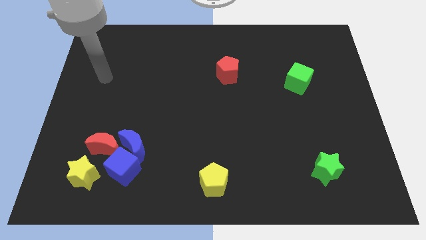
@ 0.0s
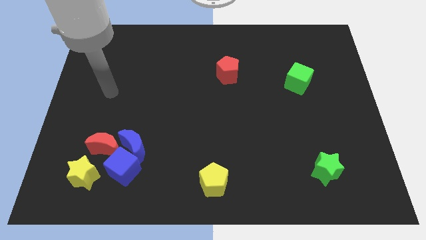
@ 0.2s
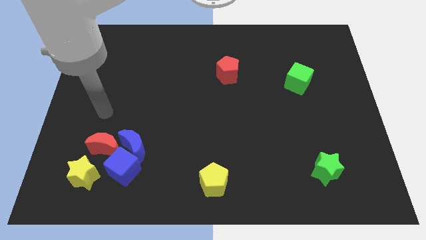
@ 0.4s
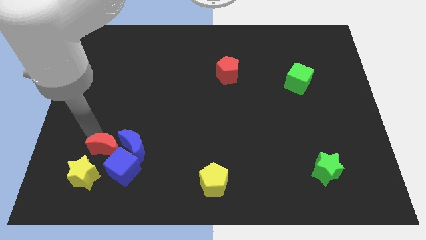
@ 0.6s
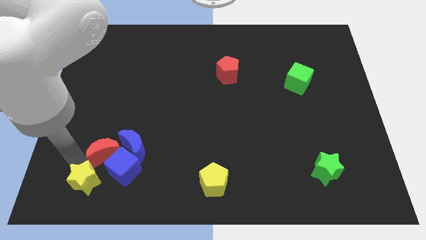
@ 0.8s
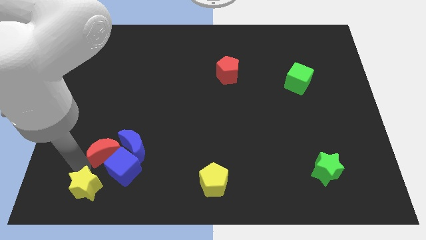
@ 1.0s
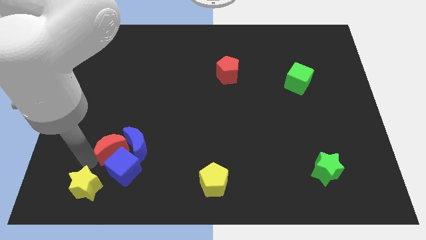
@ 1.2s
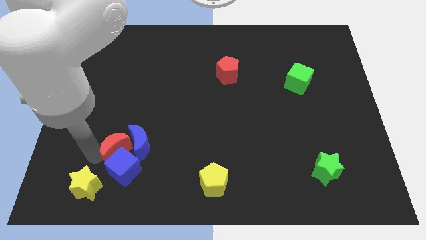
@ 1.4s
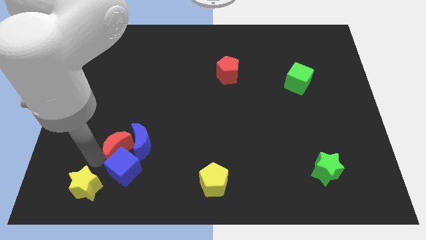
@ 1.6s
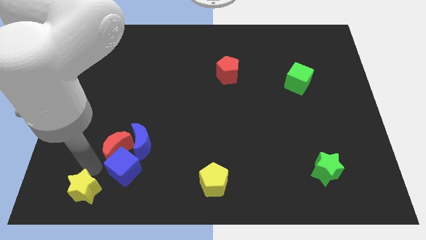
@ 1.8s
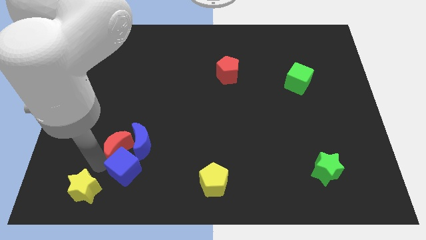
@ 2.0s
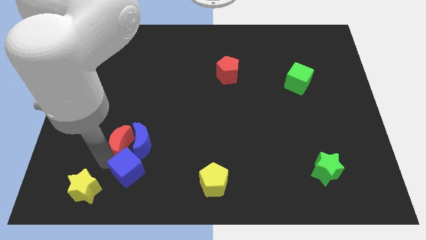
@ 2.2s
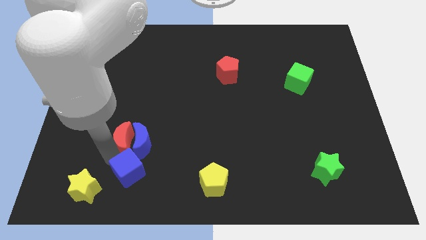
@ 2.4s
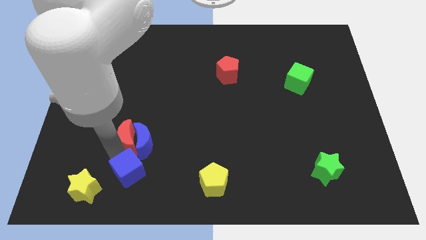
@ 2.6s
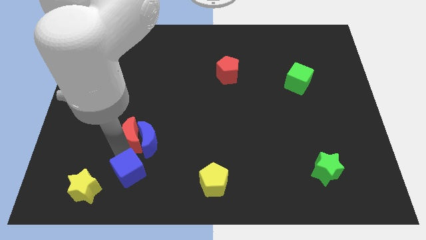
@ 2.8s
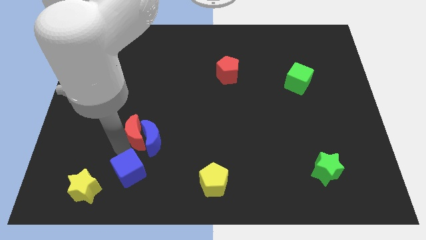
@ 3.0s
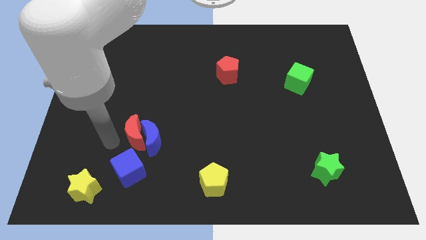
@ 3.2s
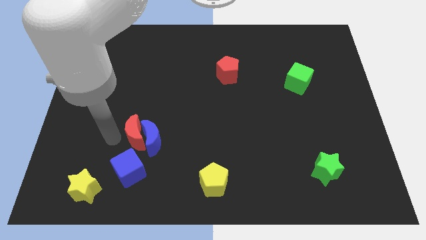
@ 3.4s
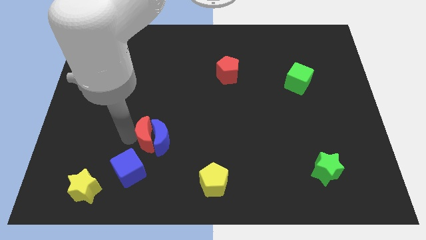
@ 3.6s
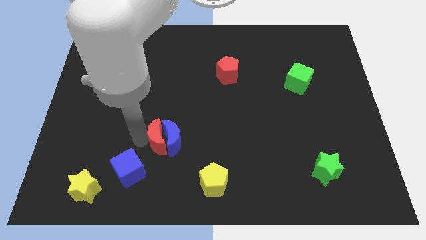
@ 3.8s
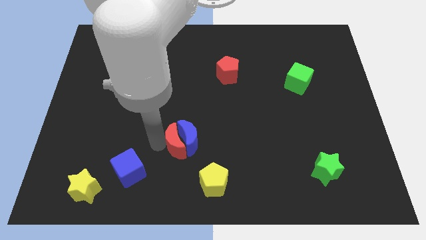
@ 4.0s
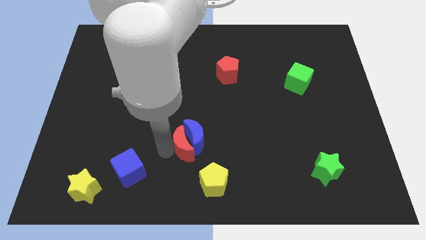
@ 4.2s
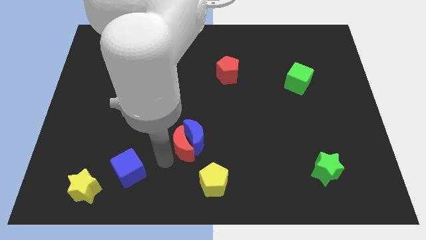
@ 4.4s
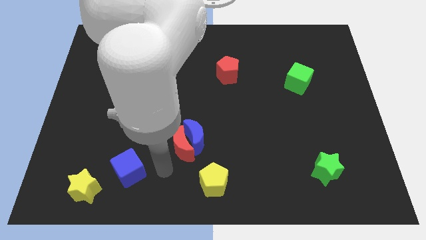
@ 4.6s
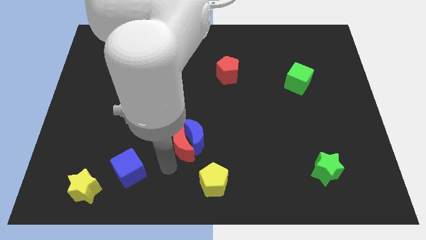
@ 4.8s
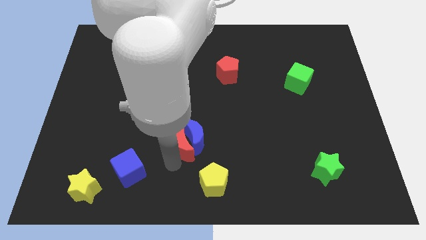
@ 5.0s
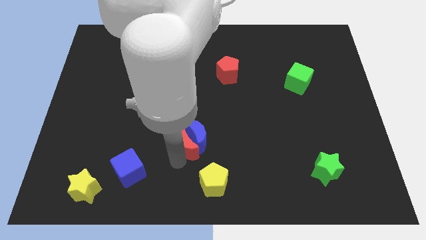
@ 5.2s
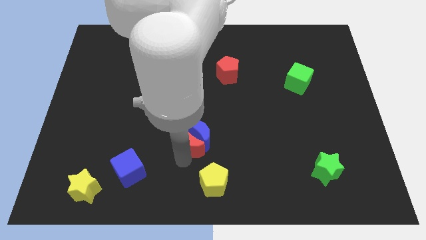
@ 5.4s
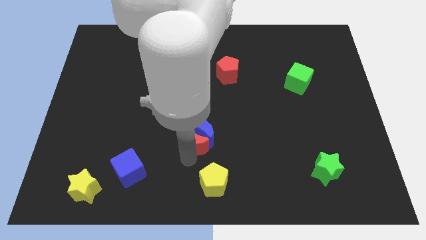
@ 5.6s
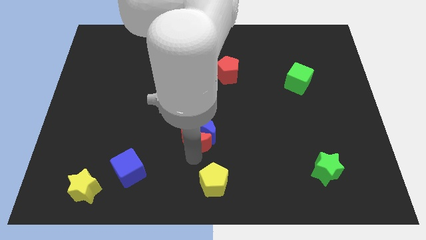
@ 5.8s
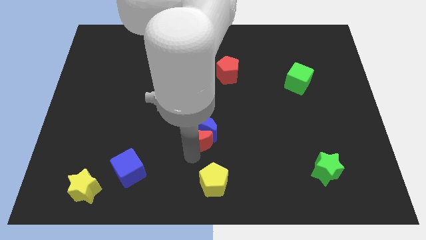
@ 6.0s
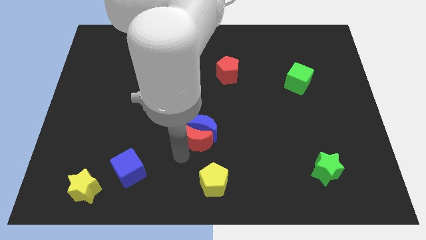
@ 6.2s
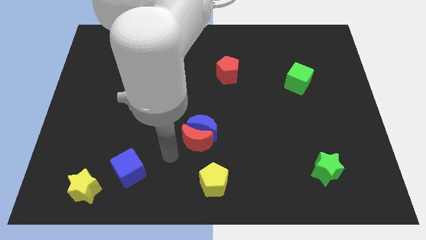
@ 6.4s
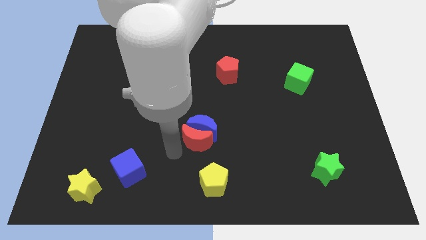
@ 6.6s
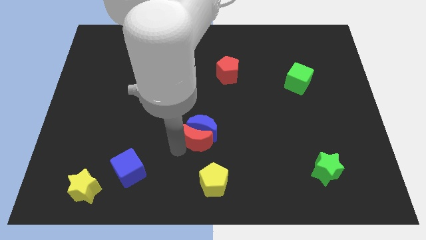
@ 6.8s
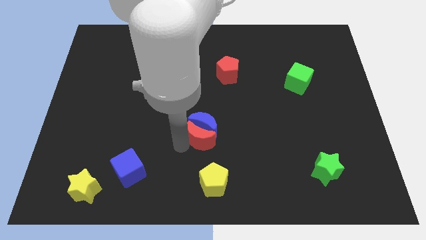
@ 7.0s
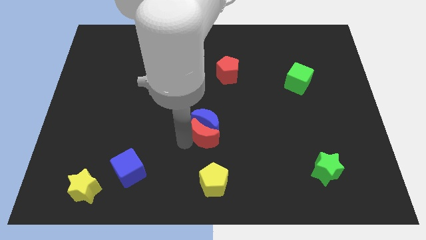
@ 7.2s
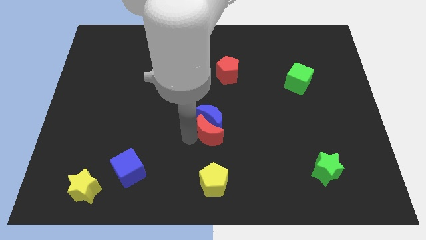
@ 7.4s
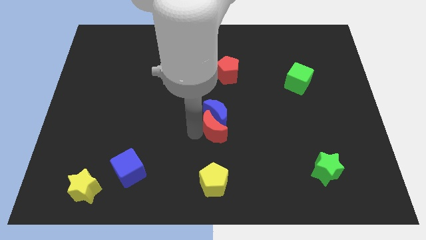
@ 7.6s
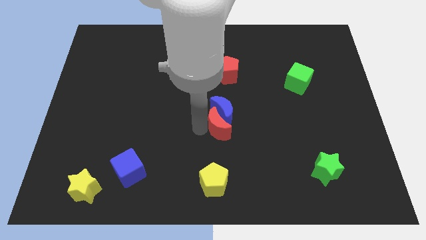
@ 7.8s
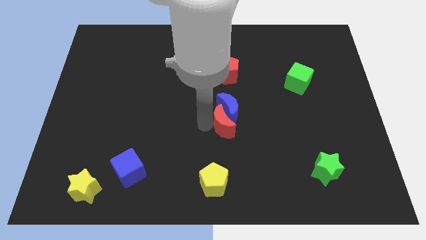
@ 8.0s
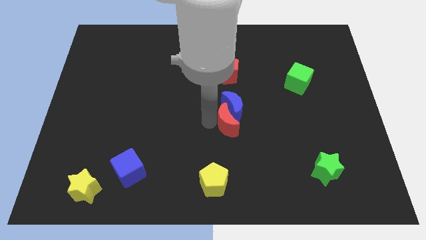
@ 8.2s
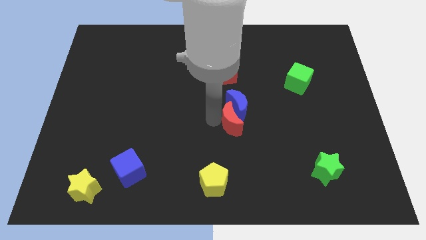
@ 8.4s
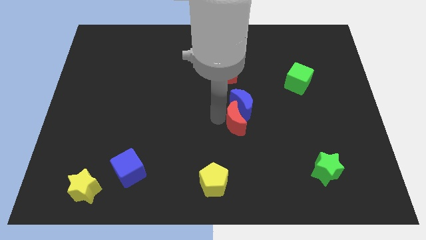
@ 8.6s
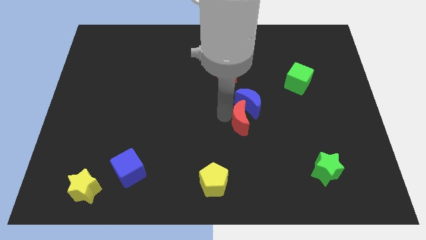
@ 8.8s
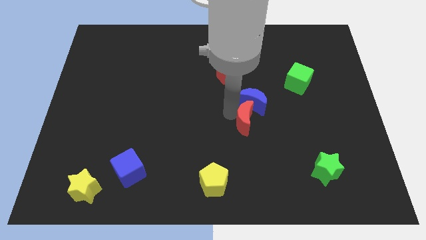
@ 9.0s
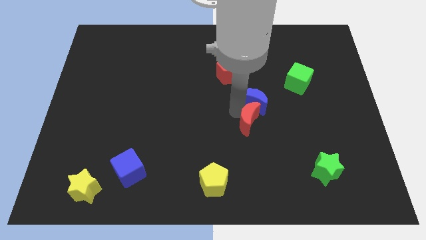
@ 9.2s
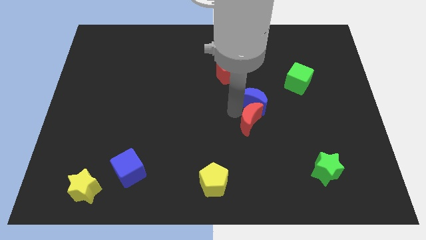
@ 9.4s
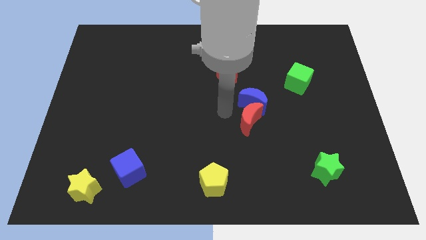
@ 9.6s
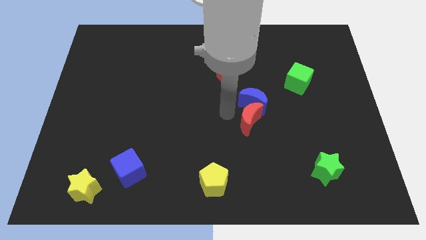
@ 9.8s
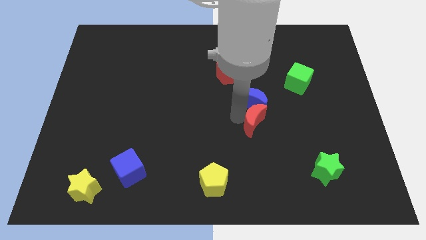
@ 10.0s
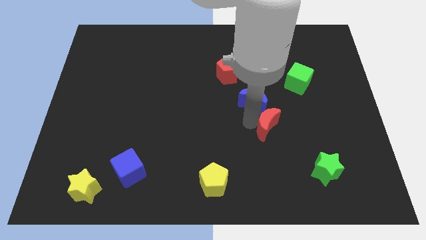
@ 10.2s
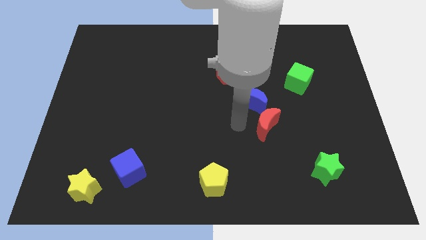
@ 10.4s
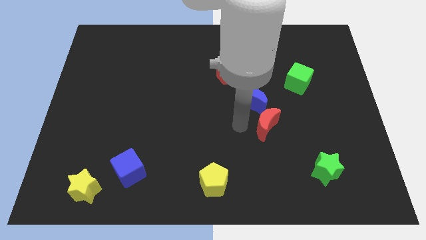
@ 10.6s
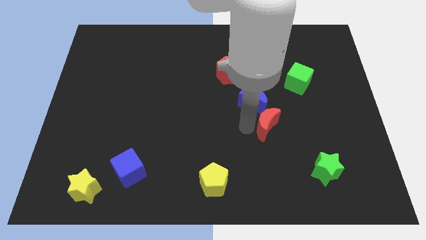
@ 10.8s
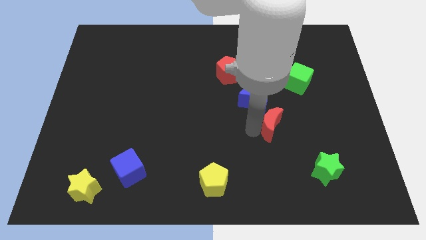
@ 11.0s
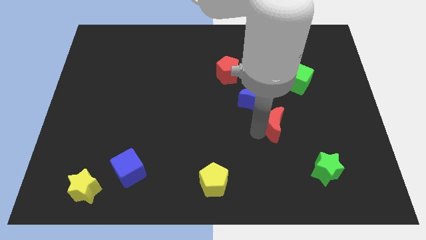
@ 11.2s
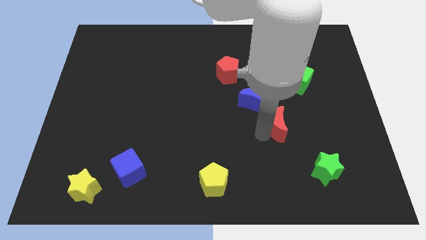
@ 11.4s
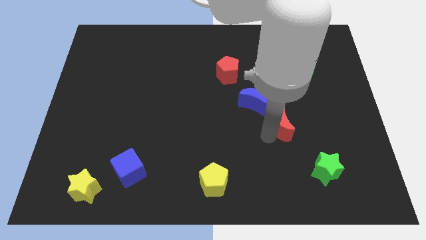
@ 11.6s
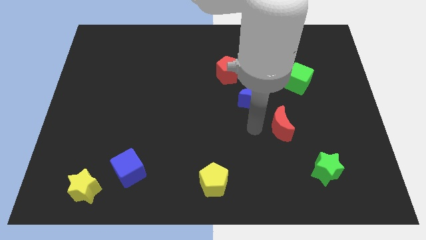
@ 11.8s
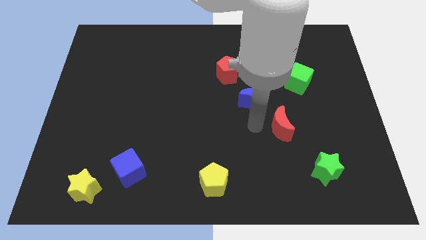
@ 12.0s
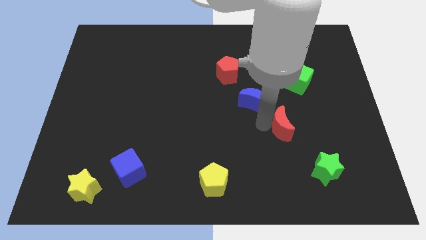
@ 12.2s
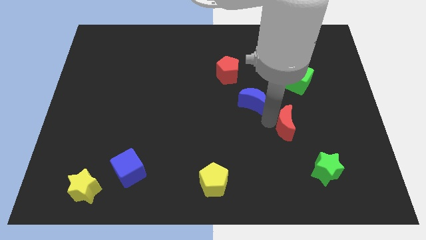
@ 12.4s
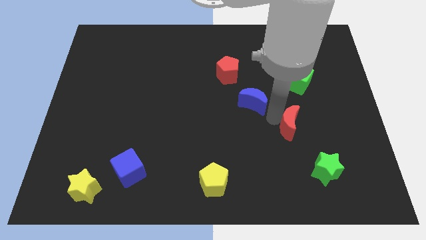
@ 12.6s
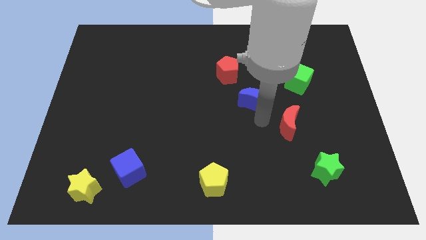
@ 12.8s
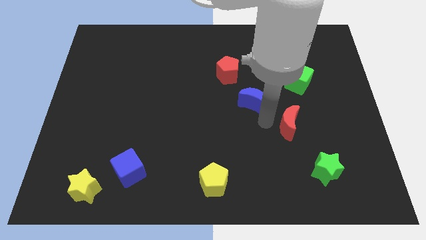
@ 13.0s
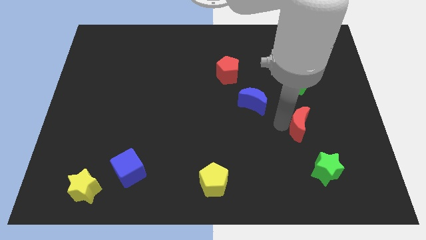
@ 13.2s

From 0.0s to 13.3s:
move the red moon to the top of the green star

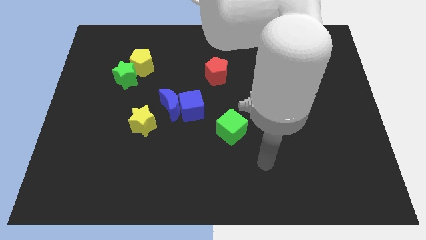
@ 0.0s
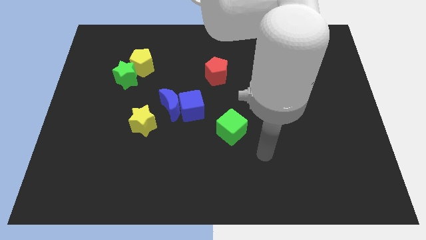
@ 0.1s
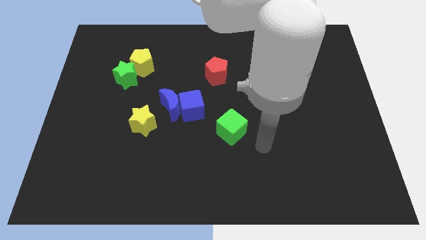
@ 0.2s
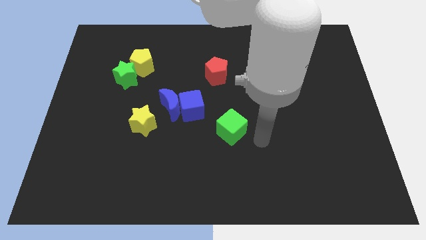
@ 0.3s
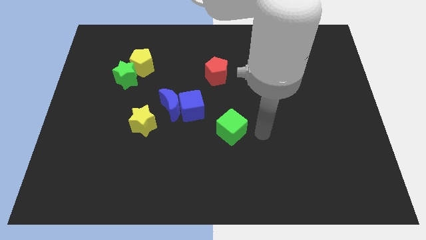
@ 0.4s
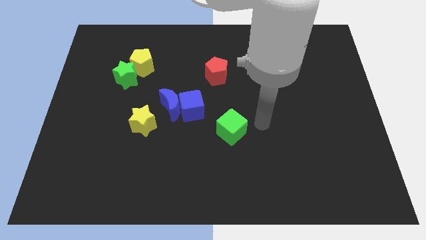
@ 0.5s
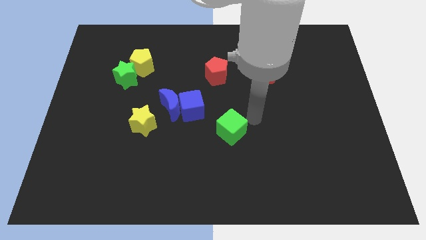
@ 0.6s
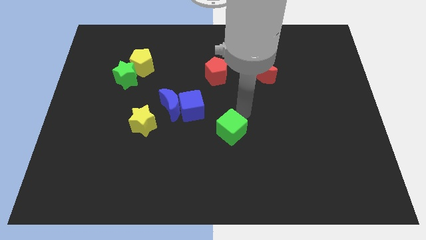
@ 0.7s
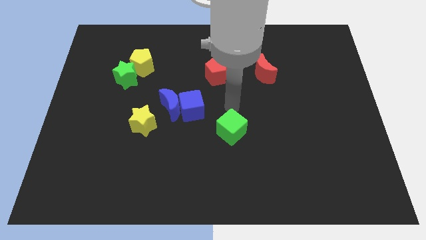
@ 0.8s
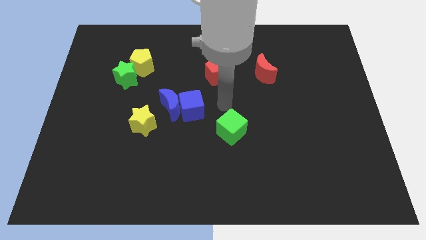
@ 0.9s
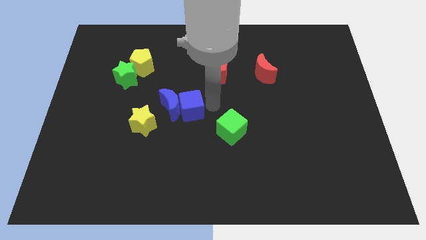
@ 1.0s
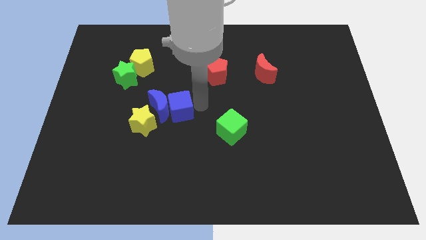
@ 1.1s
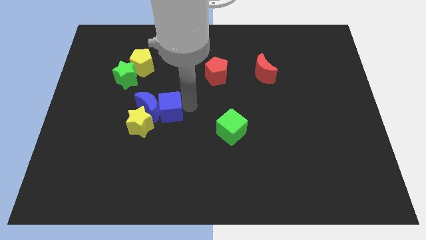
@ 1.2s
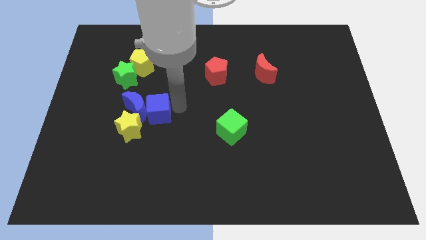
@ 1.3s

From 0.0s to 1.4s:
put the blue moon to the bottom side of the green star
